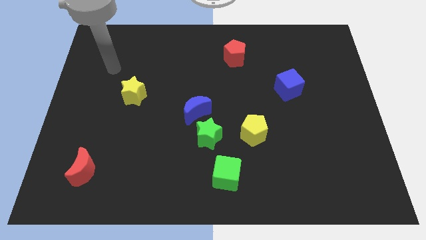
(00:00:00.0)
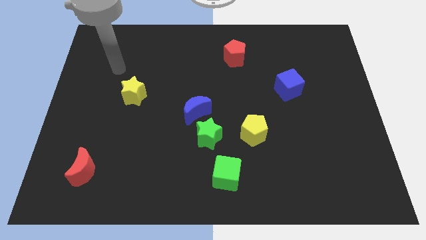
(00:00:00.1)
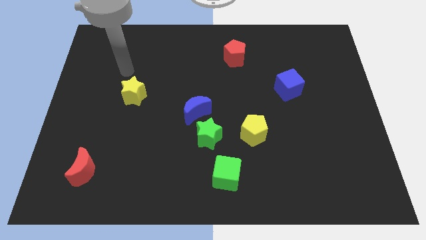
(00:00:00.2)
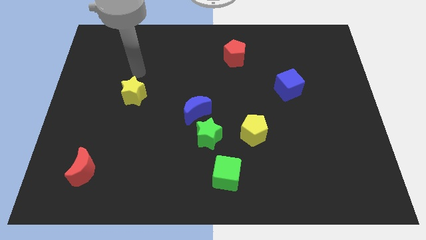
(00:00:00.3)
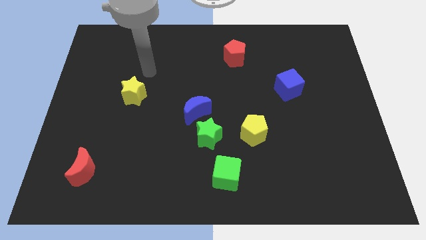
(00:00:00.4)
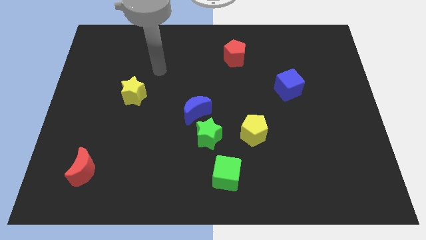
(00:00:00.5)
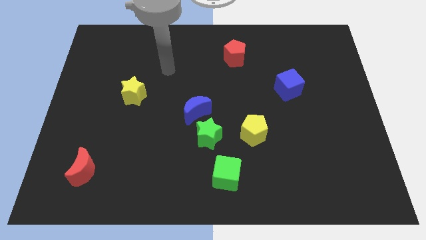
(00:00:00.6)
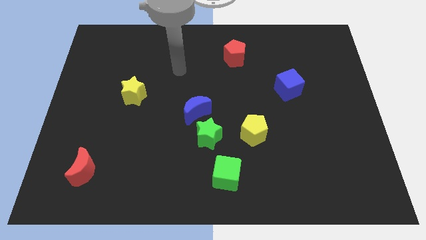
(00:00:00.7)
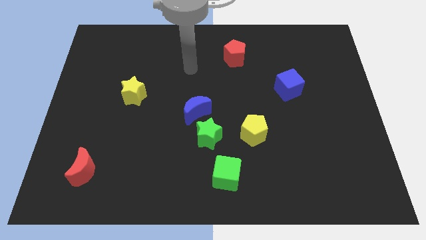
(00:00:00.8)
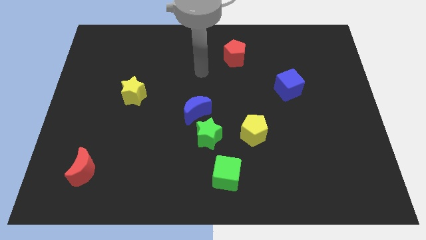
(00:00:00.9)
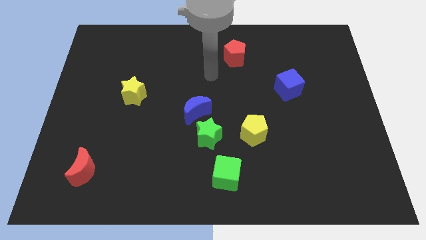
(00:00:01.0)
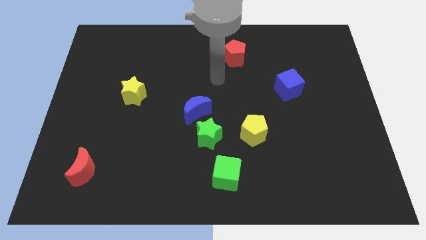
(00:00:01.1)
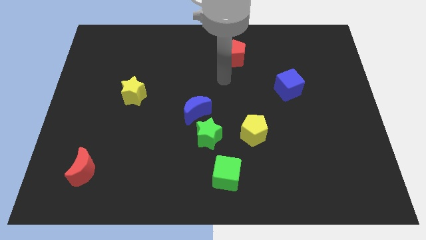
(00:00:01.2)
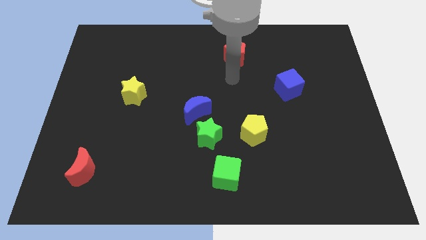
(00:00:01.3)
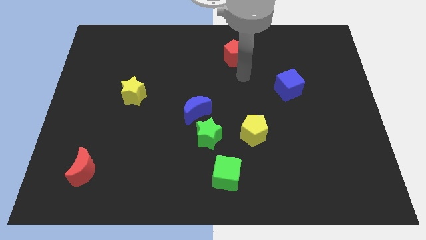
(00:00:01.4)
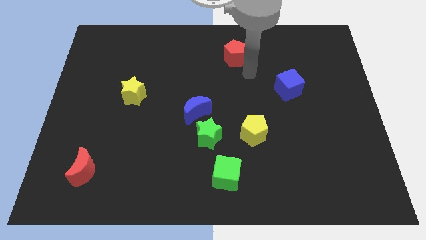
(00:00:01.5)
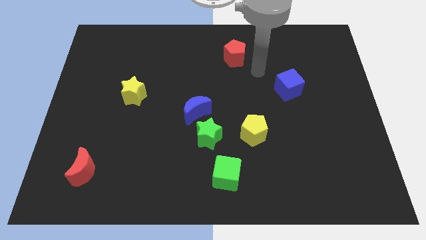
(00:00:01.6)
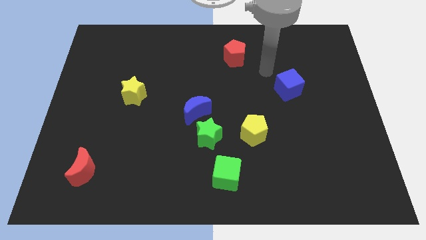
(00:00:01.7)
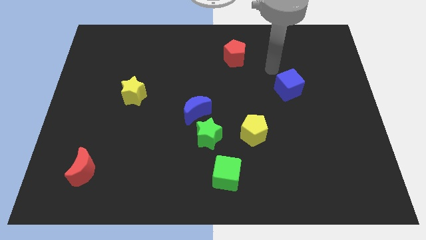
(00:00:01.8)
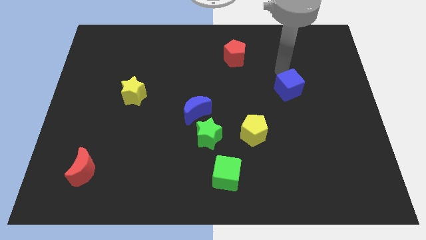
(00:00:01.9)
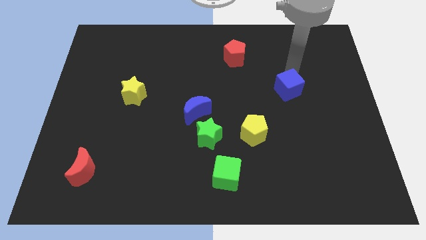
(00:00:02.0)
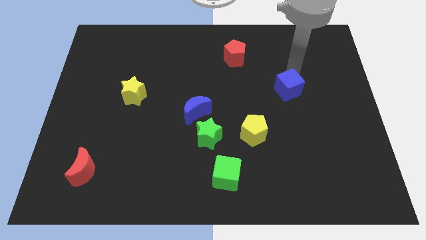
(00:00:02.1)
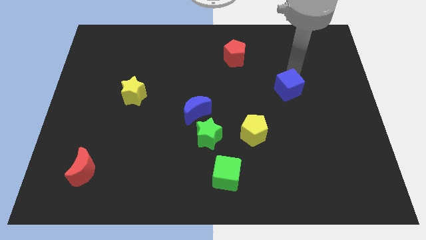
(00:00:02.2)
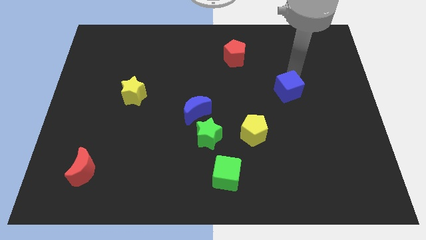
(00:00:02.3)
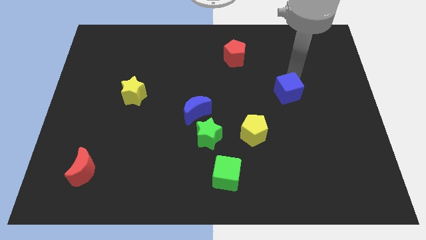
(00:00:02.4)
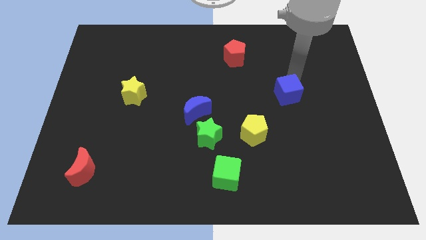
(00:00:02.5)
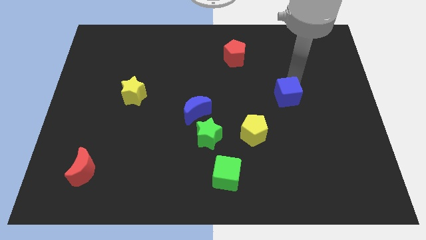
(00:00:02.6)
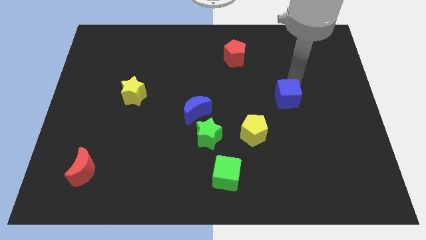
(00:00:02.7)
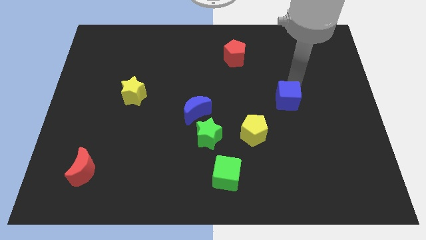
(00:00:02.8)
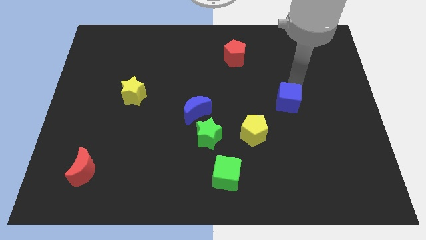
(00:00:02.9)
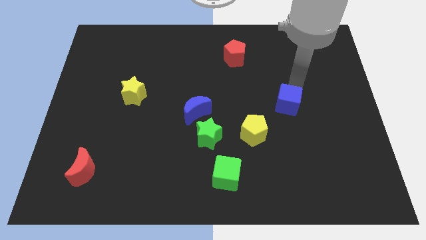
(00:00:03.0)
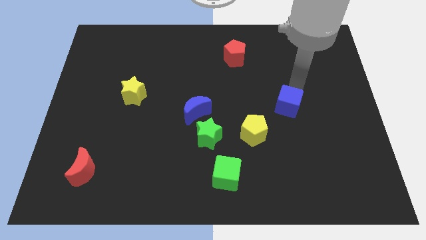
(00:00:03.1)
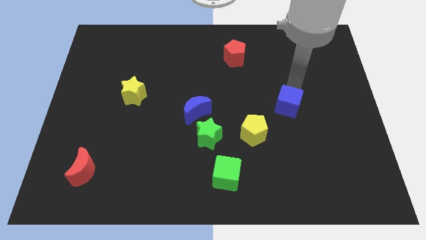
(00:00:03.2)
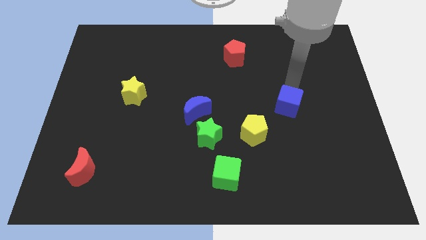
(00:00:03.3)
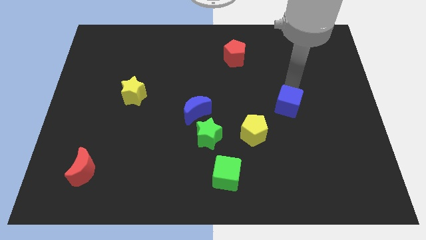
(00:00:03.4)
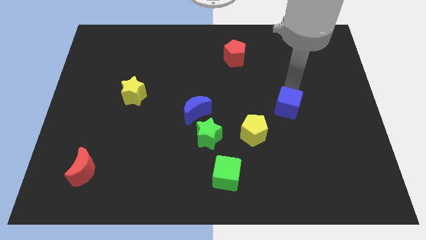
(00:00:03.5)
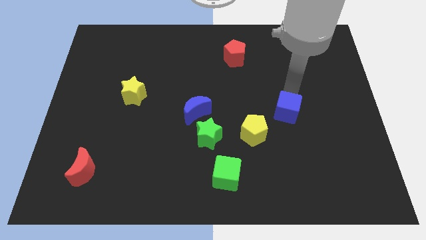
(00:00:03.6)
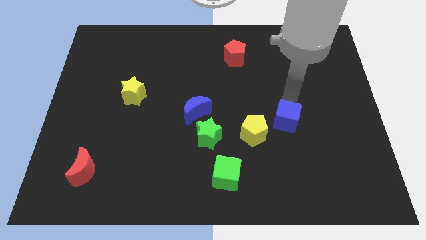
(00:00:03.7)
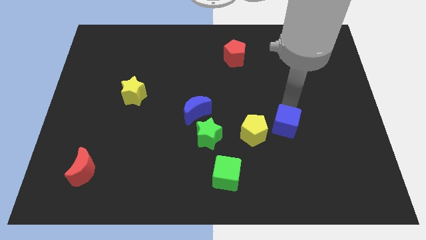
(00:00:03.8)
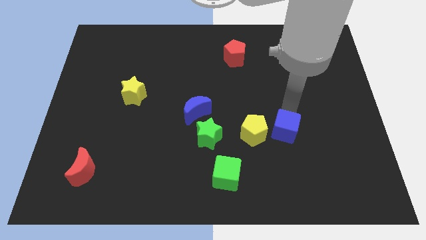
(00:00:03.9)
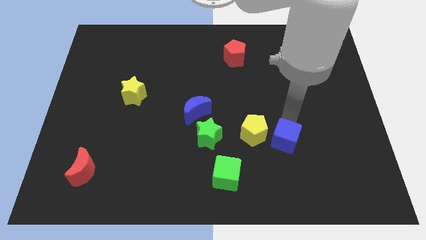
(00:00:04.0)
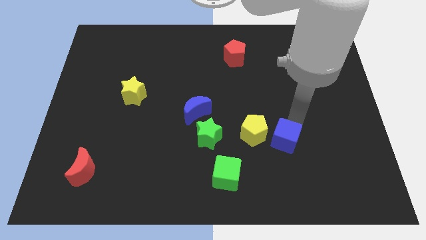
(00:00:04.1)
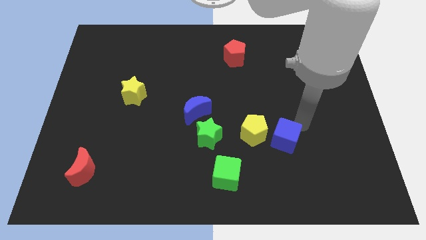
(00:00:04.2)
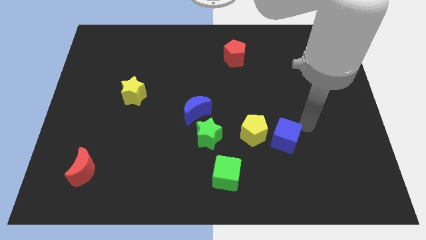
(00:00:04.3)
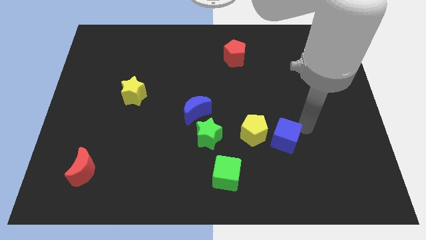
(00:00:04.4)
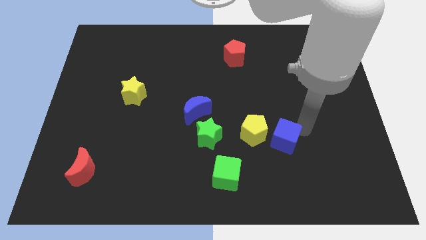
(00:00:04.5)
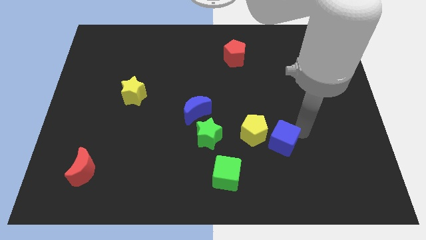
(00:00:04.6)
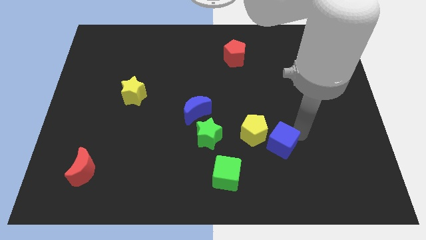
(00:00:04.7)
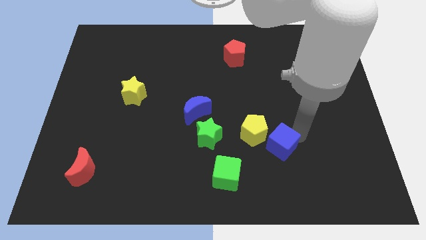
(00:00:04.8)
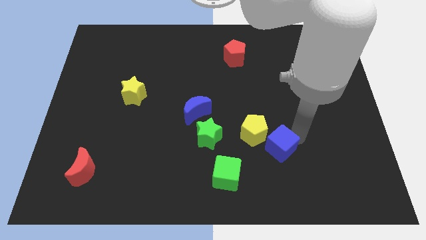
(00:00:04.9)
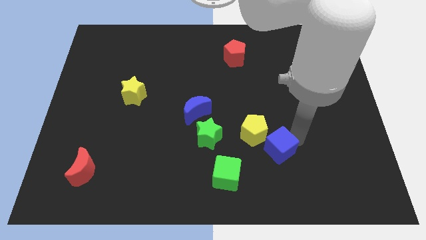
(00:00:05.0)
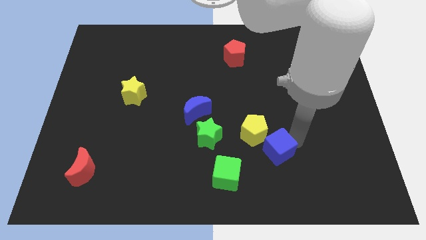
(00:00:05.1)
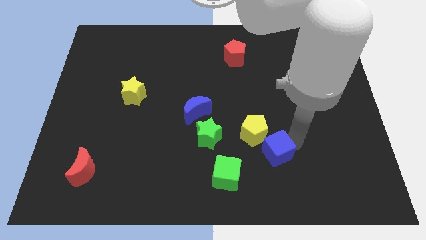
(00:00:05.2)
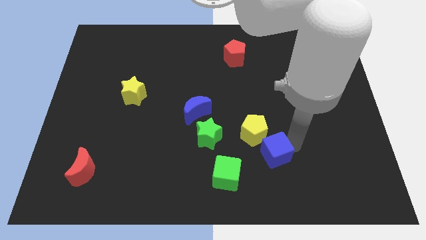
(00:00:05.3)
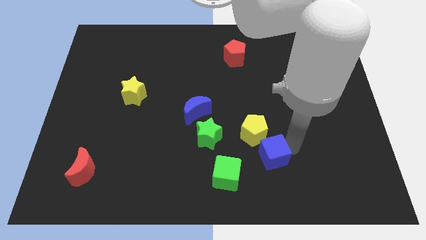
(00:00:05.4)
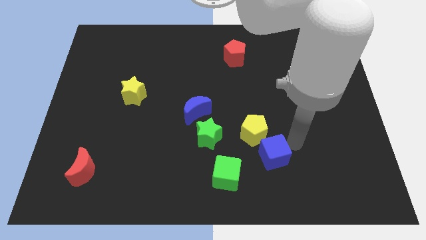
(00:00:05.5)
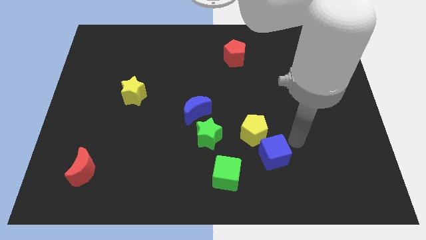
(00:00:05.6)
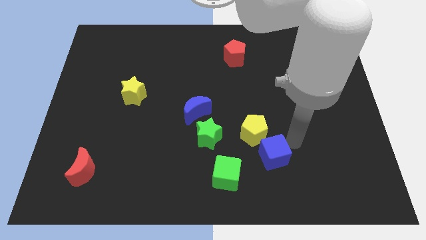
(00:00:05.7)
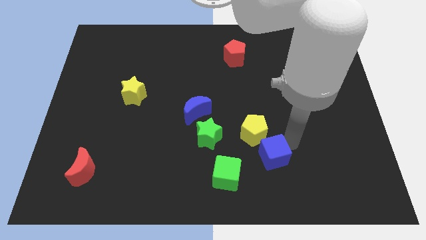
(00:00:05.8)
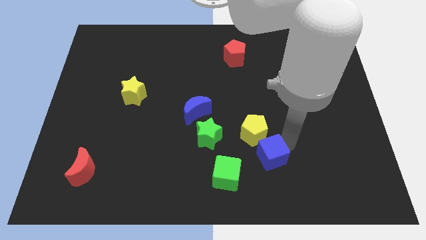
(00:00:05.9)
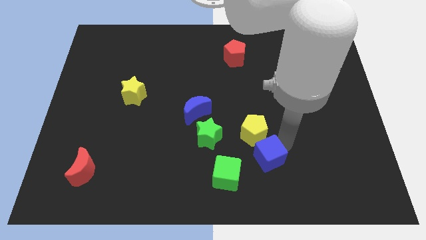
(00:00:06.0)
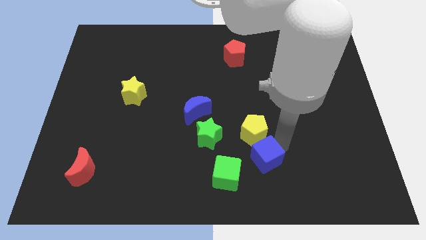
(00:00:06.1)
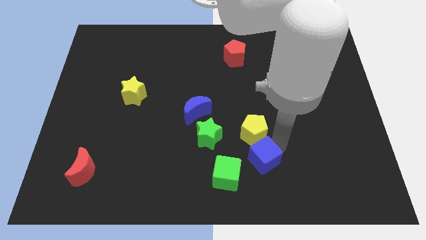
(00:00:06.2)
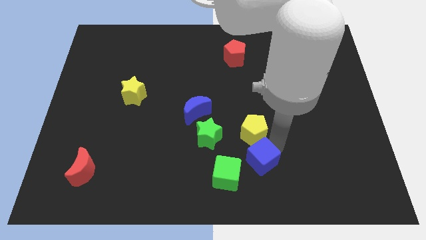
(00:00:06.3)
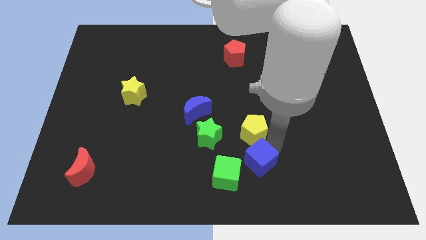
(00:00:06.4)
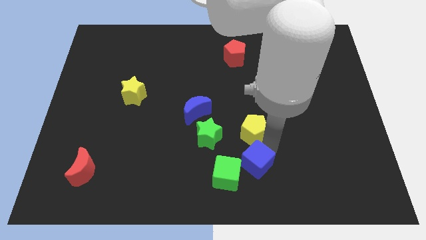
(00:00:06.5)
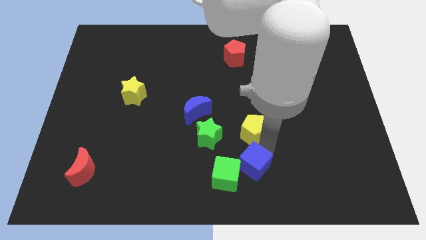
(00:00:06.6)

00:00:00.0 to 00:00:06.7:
slide the blue cube to the bottom side

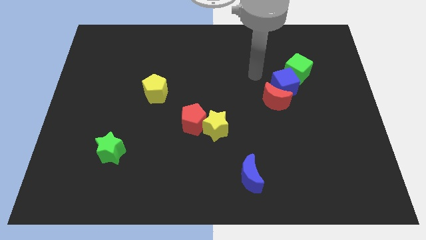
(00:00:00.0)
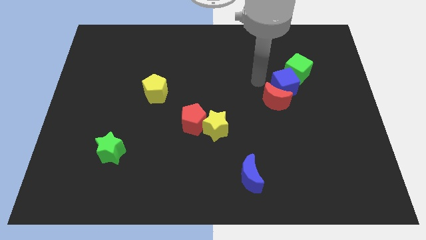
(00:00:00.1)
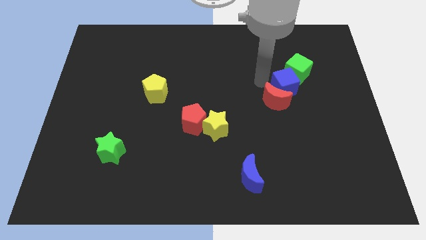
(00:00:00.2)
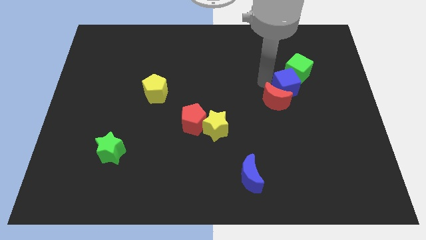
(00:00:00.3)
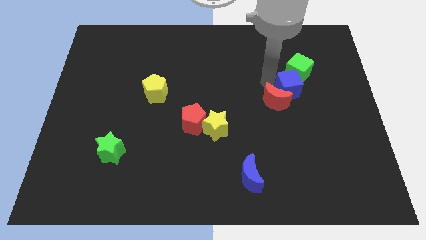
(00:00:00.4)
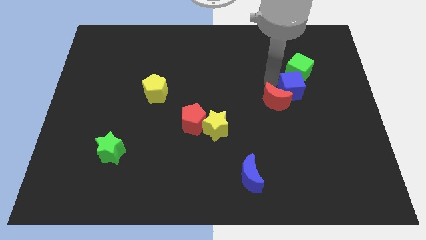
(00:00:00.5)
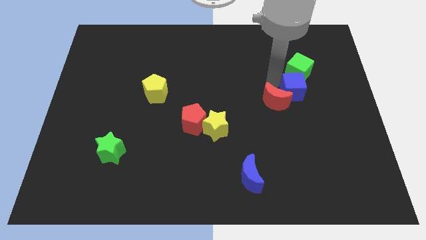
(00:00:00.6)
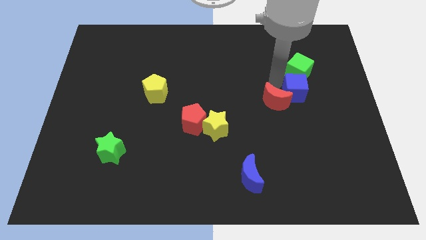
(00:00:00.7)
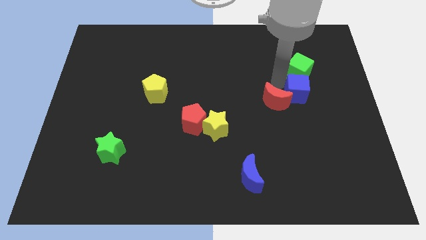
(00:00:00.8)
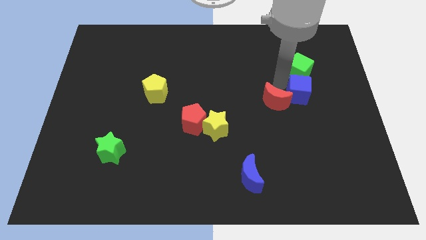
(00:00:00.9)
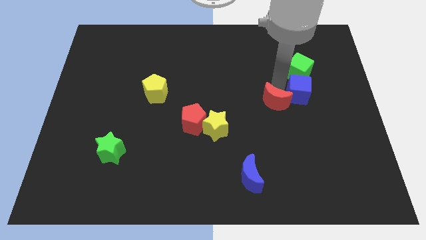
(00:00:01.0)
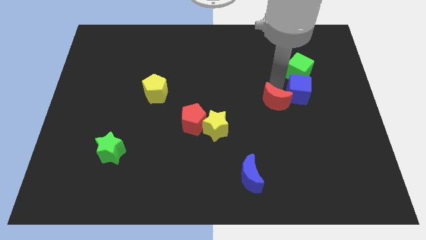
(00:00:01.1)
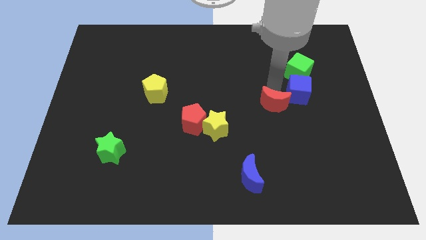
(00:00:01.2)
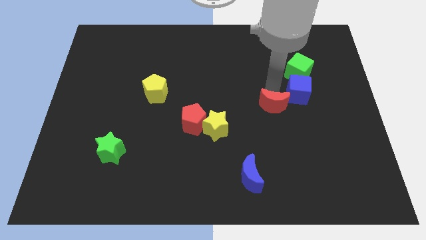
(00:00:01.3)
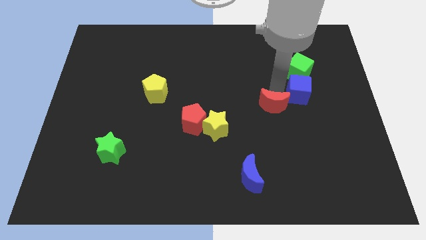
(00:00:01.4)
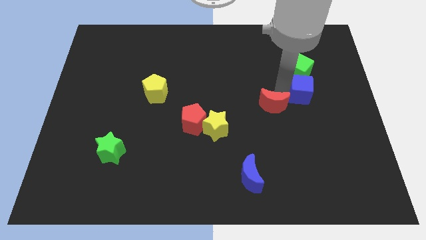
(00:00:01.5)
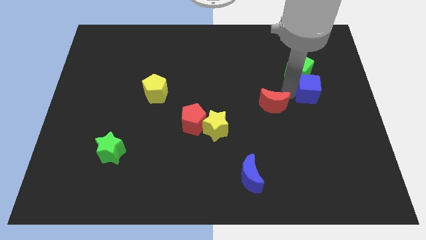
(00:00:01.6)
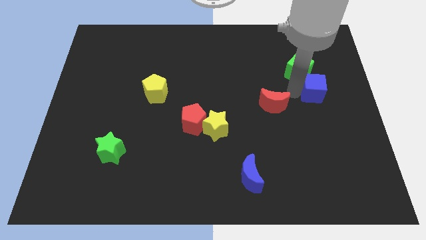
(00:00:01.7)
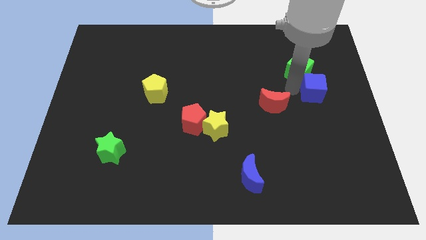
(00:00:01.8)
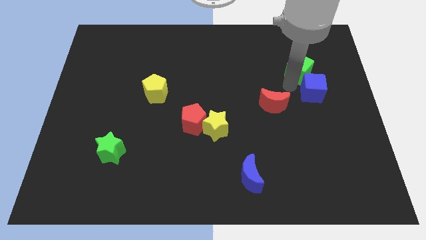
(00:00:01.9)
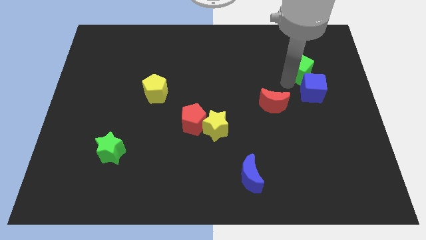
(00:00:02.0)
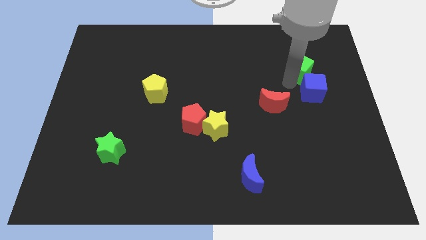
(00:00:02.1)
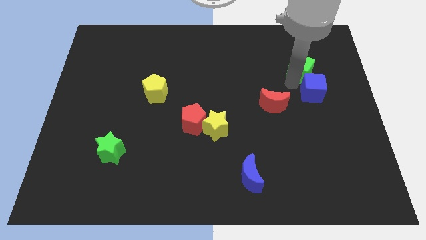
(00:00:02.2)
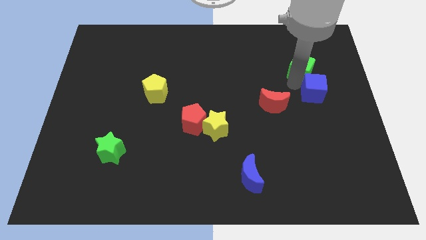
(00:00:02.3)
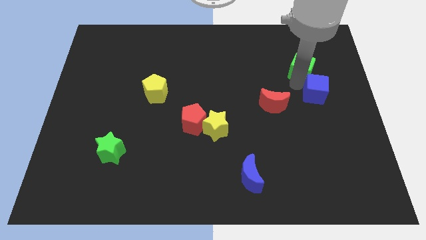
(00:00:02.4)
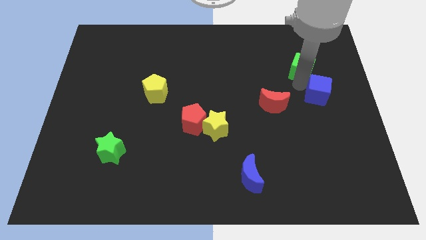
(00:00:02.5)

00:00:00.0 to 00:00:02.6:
move the blue cube to the right side
